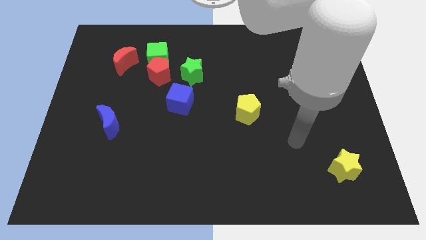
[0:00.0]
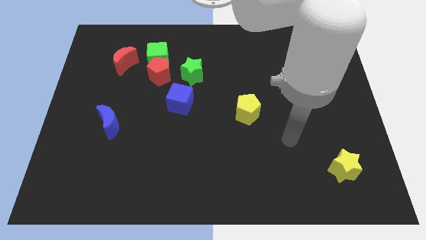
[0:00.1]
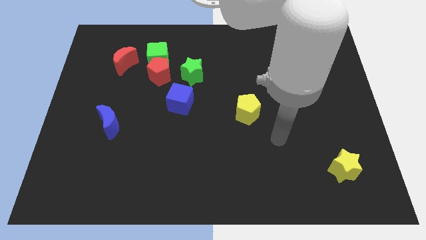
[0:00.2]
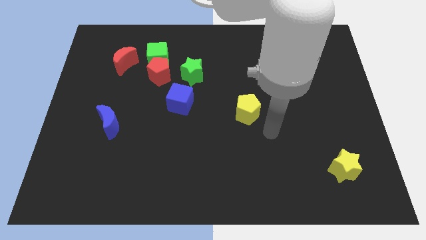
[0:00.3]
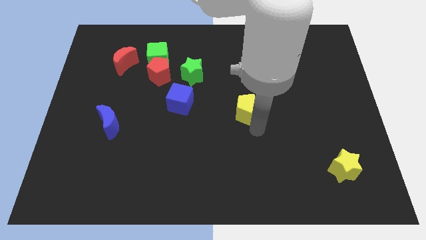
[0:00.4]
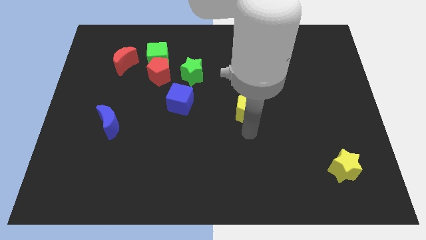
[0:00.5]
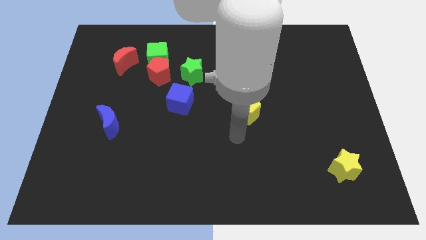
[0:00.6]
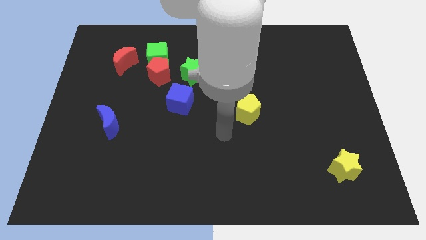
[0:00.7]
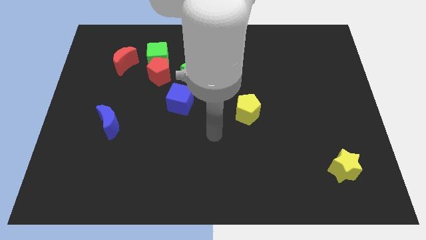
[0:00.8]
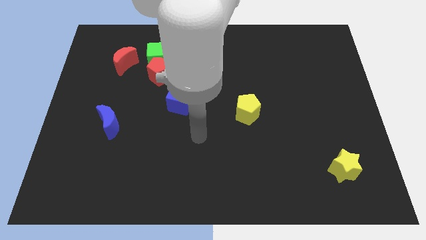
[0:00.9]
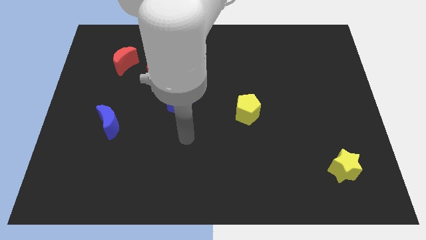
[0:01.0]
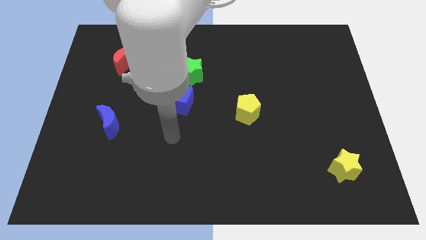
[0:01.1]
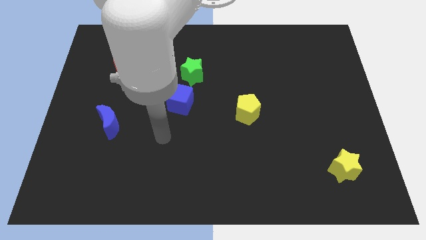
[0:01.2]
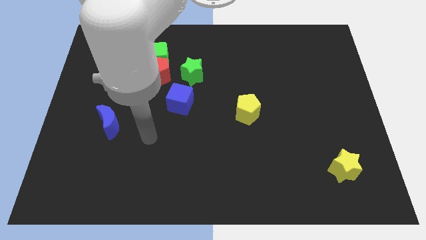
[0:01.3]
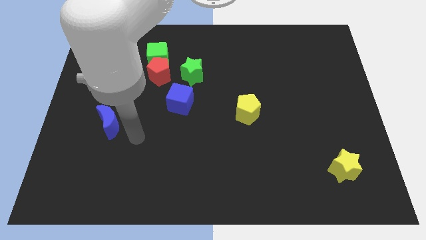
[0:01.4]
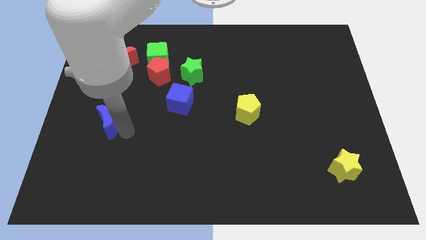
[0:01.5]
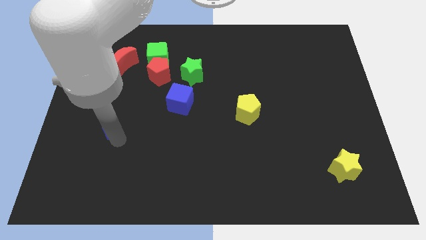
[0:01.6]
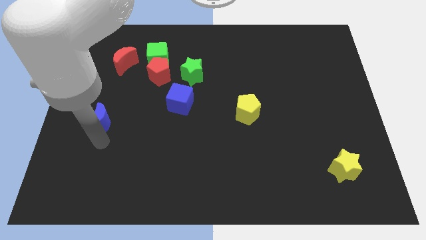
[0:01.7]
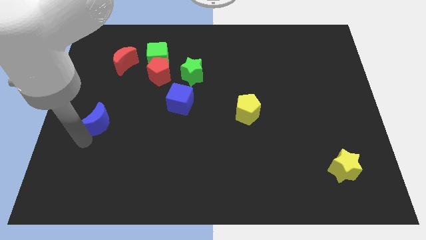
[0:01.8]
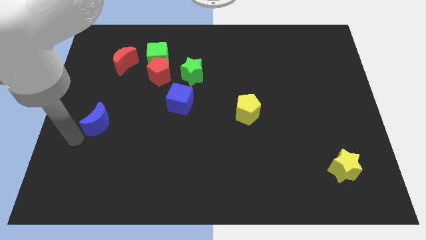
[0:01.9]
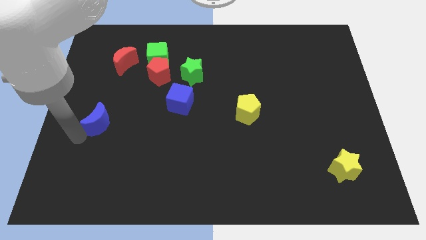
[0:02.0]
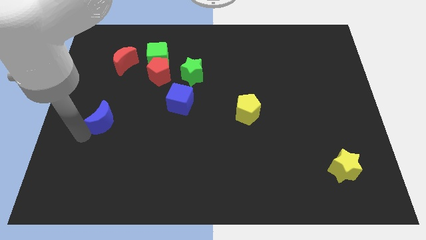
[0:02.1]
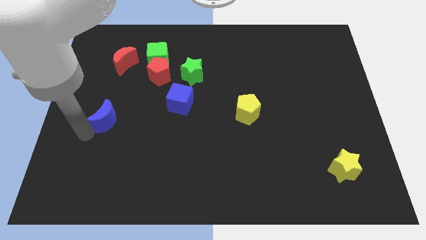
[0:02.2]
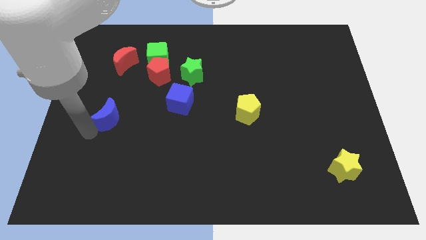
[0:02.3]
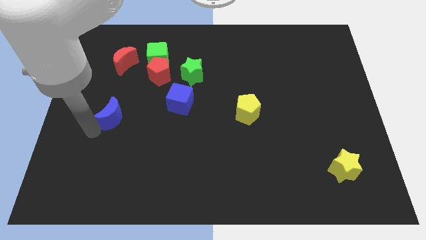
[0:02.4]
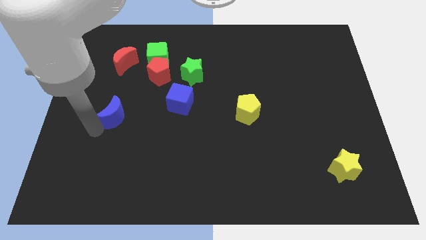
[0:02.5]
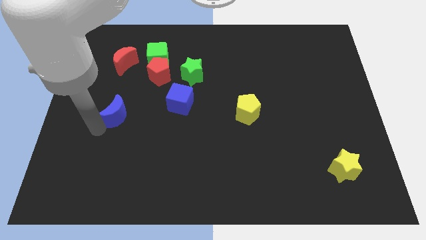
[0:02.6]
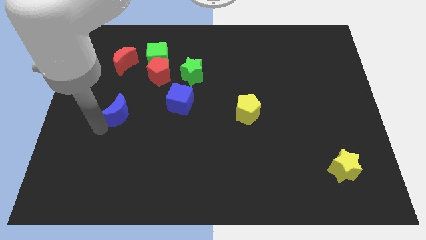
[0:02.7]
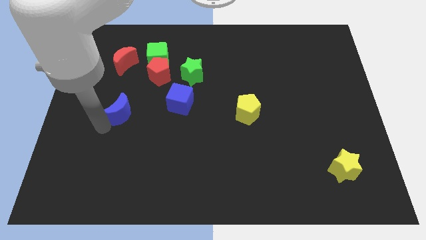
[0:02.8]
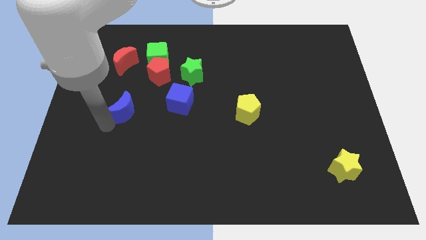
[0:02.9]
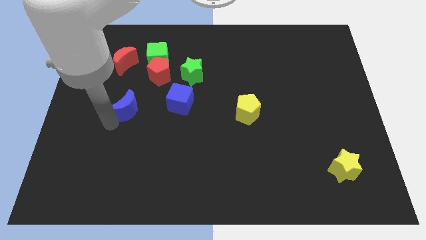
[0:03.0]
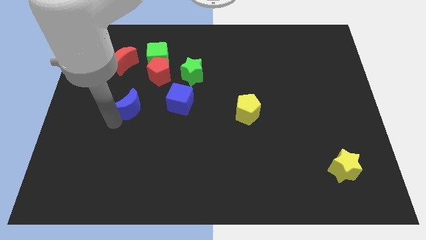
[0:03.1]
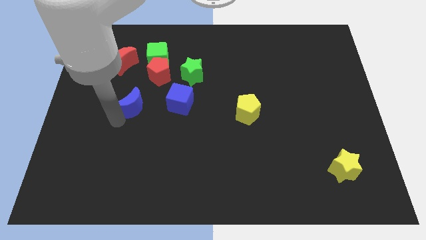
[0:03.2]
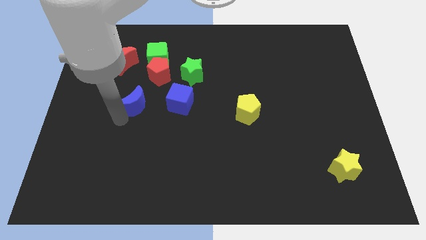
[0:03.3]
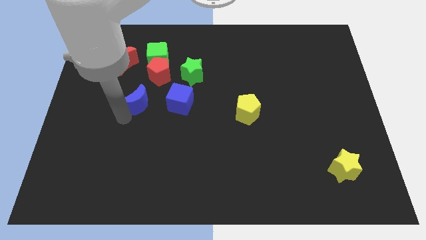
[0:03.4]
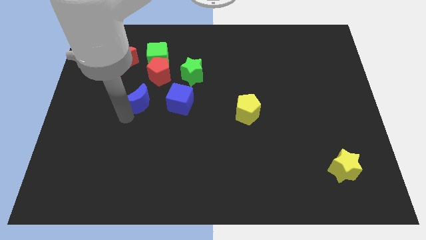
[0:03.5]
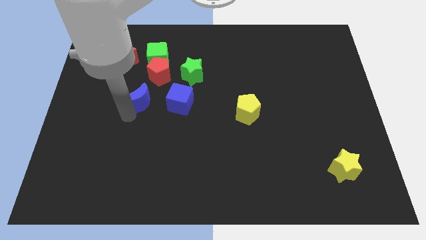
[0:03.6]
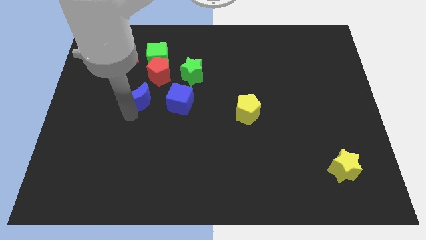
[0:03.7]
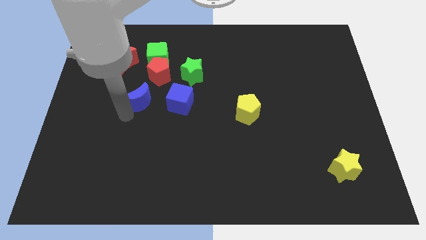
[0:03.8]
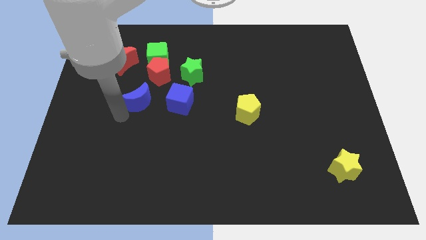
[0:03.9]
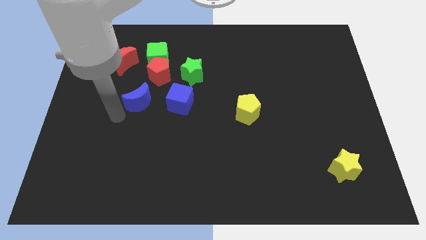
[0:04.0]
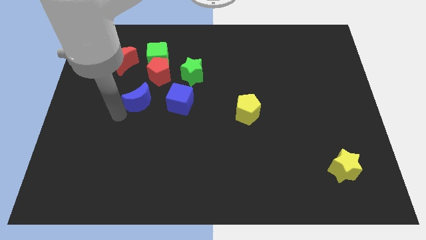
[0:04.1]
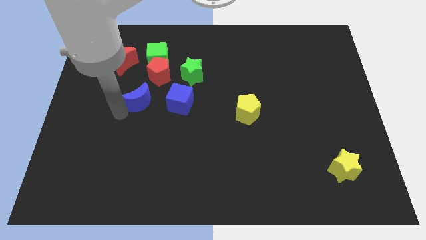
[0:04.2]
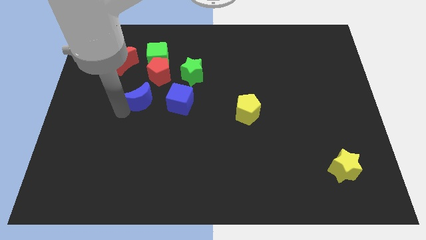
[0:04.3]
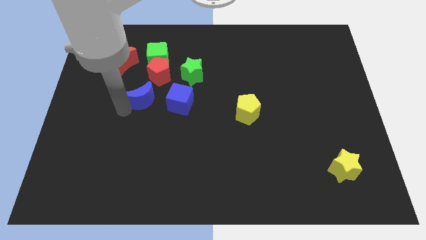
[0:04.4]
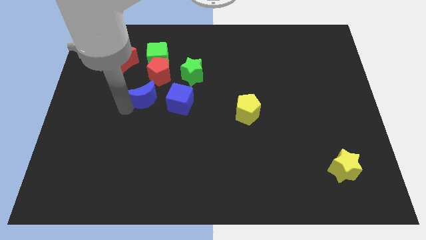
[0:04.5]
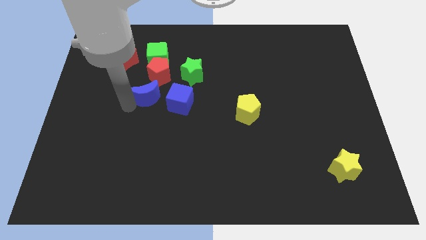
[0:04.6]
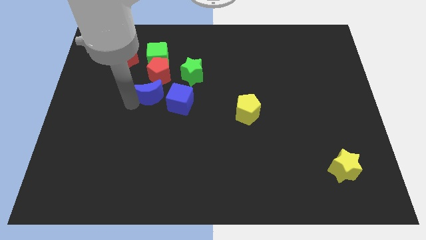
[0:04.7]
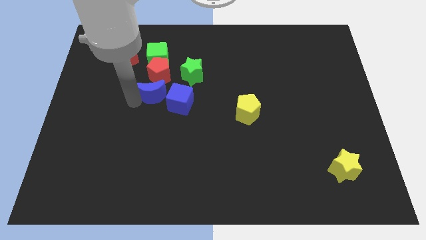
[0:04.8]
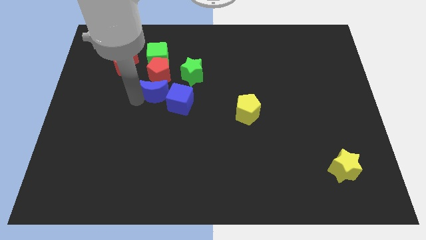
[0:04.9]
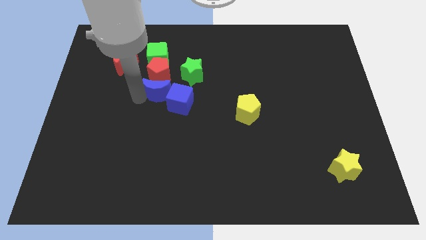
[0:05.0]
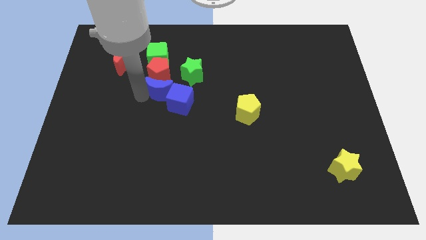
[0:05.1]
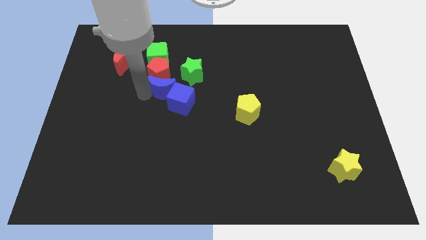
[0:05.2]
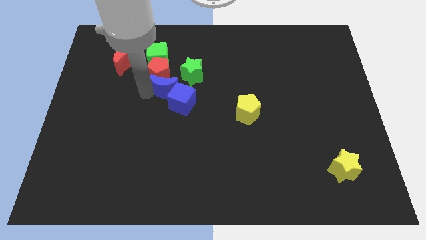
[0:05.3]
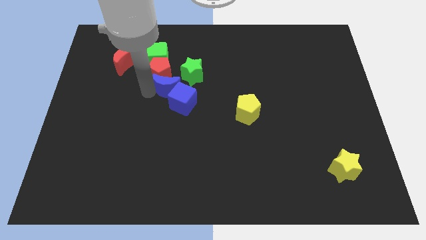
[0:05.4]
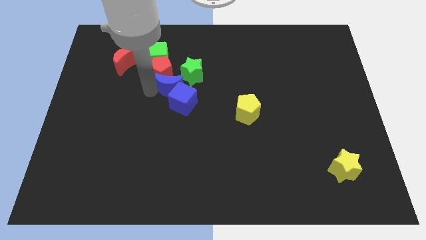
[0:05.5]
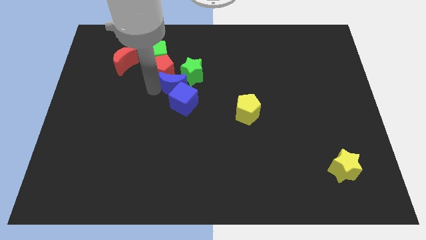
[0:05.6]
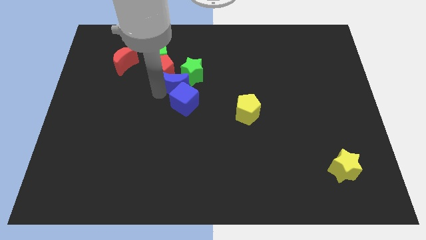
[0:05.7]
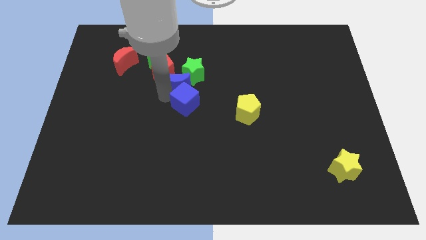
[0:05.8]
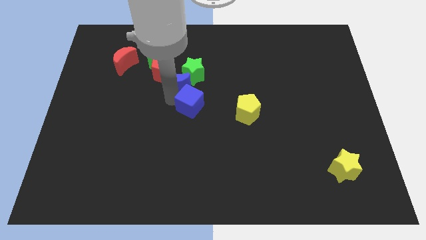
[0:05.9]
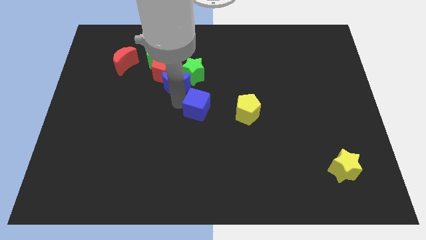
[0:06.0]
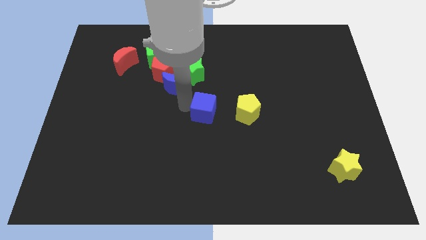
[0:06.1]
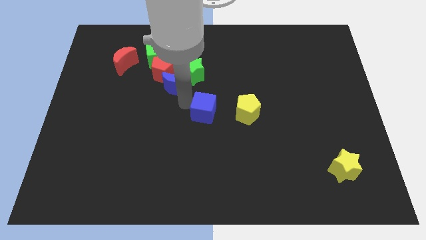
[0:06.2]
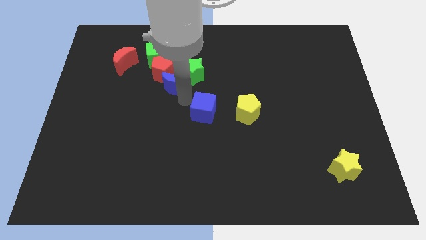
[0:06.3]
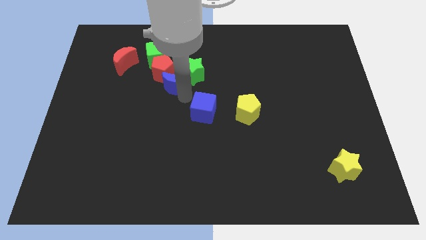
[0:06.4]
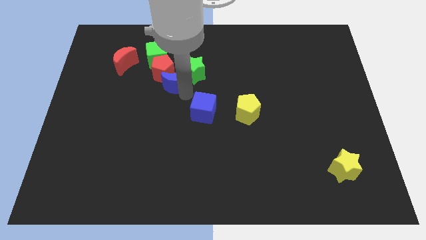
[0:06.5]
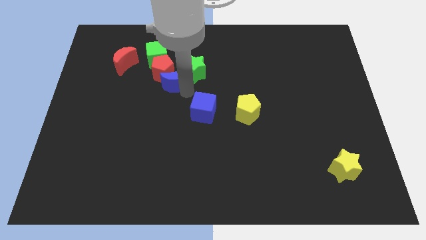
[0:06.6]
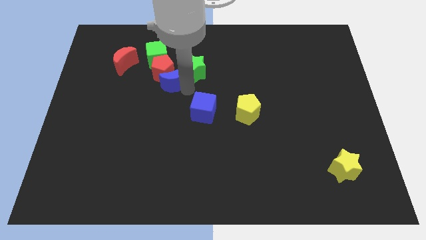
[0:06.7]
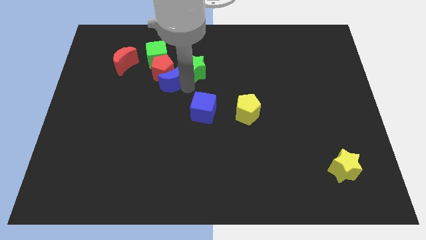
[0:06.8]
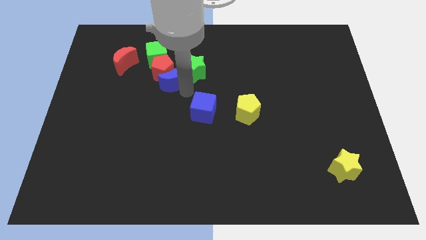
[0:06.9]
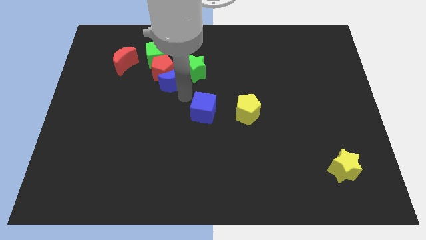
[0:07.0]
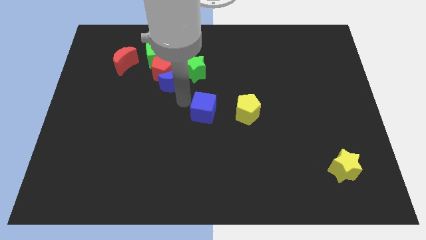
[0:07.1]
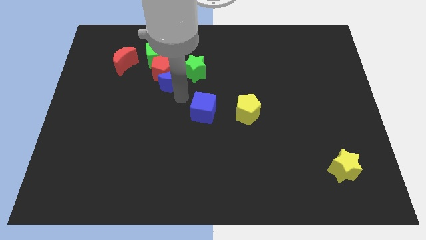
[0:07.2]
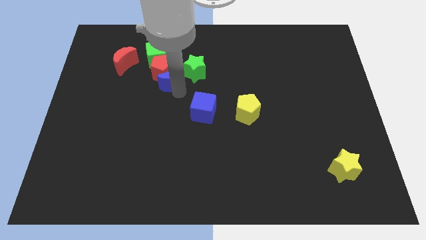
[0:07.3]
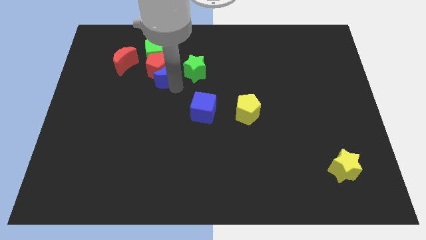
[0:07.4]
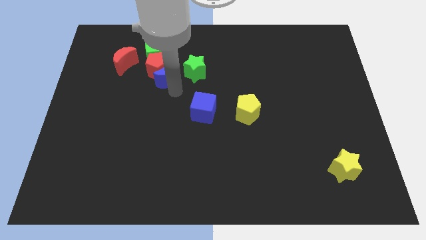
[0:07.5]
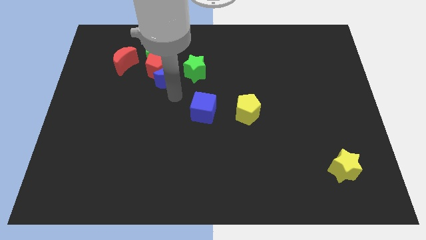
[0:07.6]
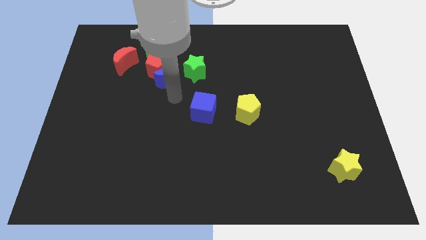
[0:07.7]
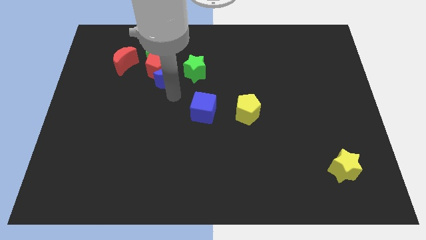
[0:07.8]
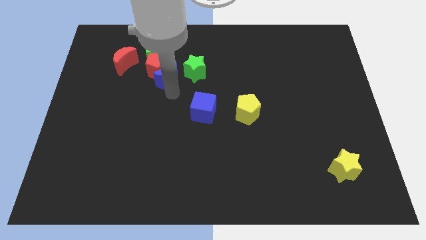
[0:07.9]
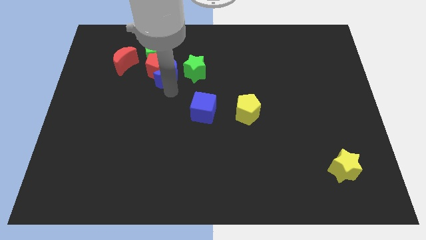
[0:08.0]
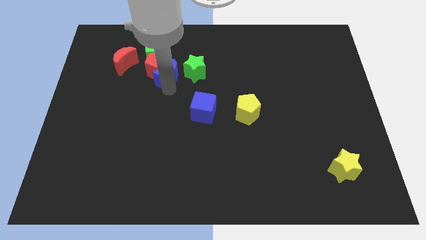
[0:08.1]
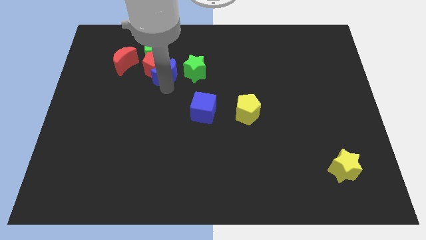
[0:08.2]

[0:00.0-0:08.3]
push the blue moon just right of the red moon
